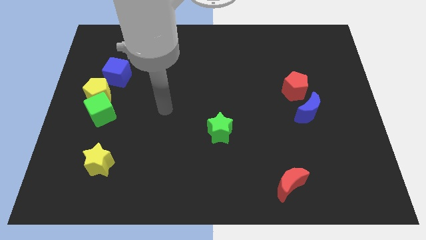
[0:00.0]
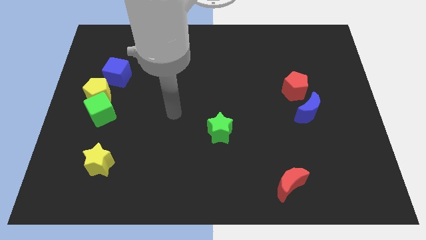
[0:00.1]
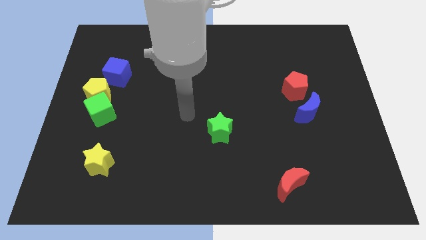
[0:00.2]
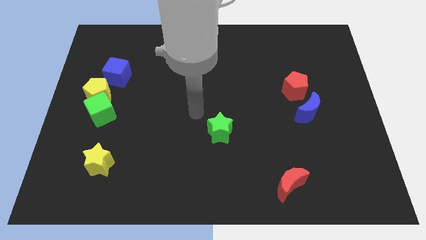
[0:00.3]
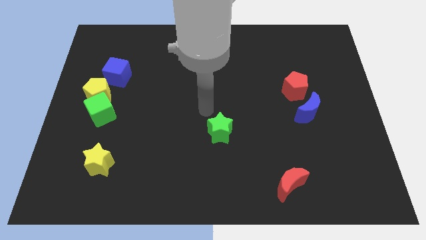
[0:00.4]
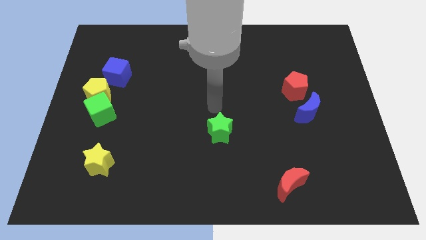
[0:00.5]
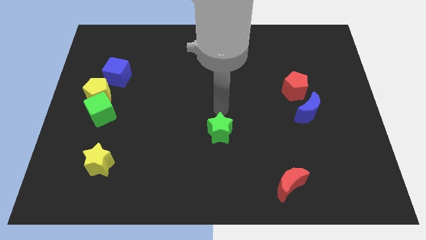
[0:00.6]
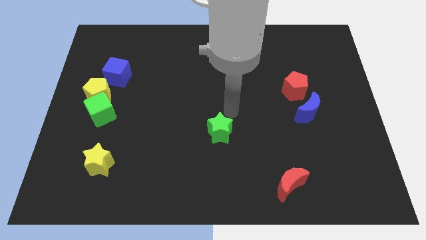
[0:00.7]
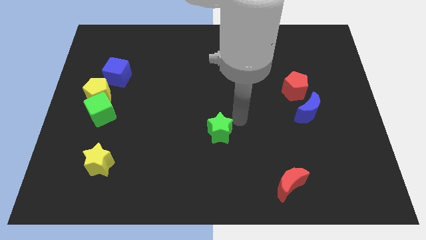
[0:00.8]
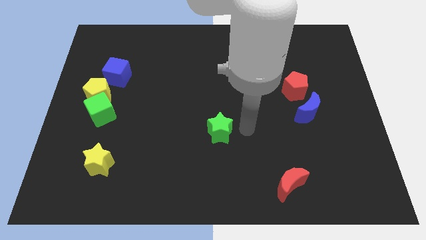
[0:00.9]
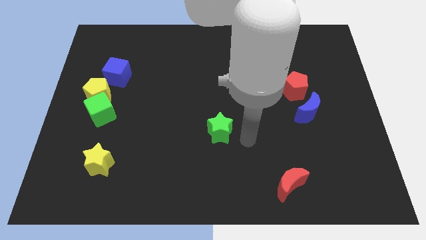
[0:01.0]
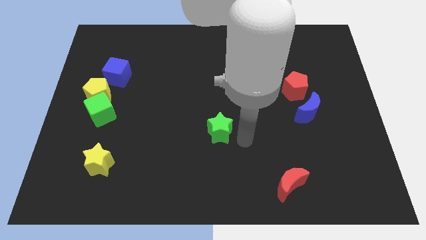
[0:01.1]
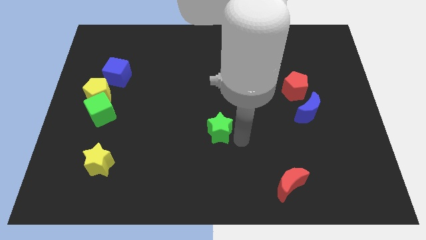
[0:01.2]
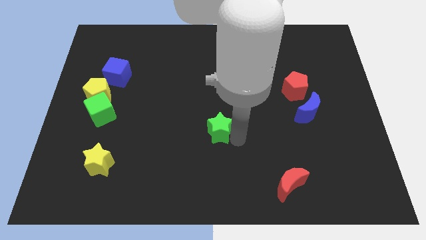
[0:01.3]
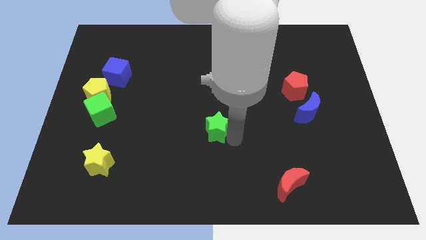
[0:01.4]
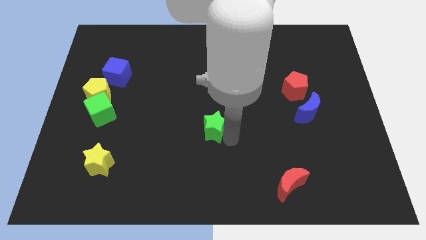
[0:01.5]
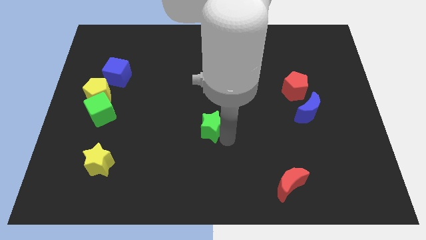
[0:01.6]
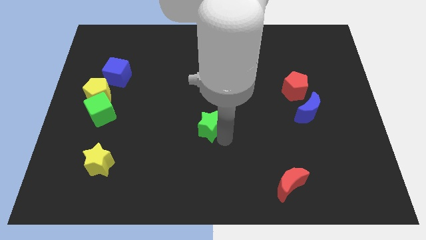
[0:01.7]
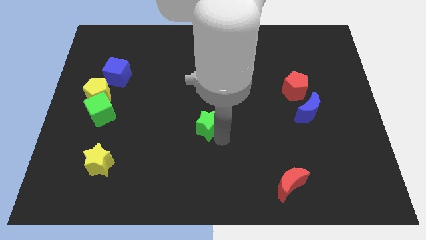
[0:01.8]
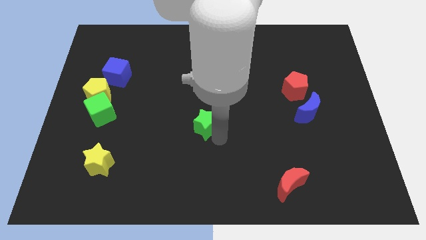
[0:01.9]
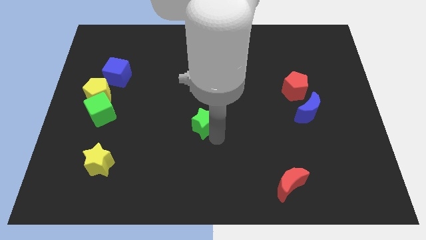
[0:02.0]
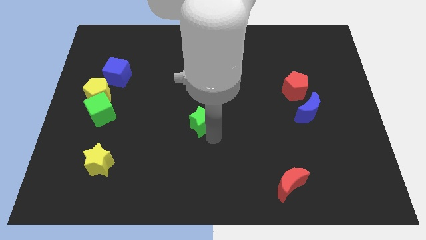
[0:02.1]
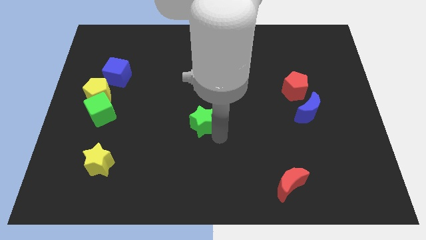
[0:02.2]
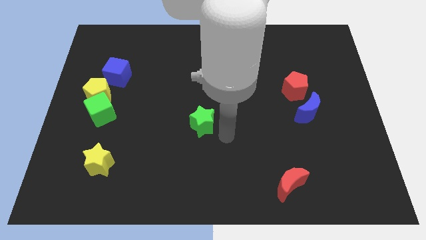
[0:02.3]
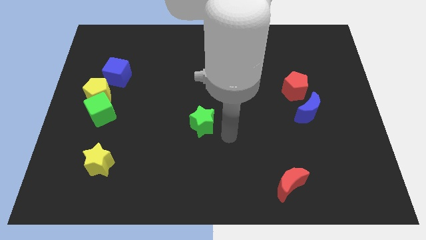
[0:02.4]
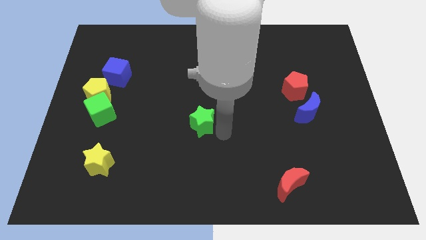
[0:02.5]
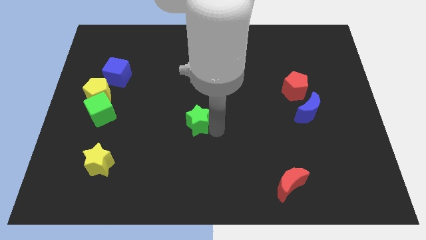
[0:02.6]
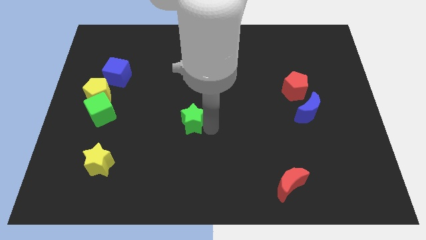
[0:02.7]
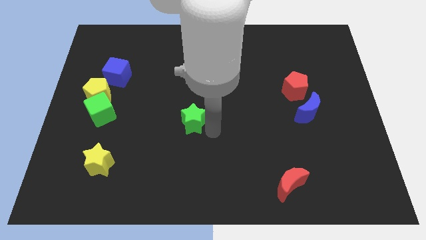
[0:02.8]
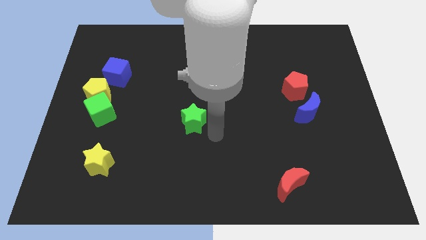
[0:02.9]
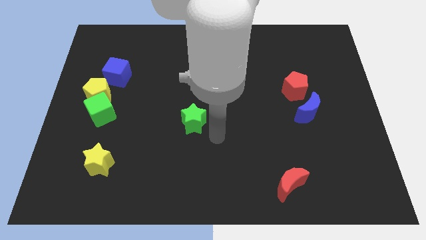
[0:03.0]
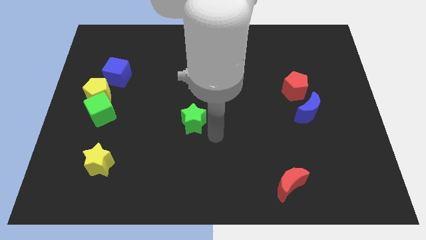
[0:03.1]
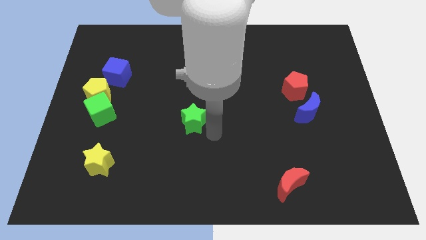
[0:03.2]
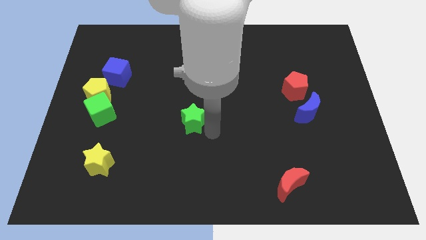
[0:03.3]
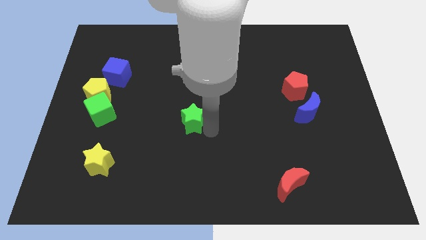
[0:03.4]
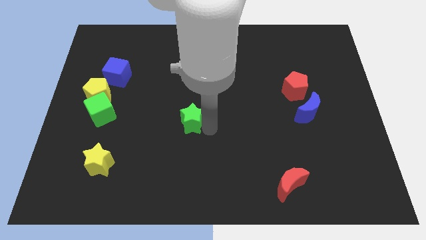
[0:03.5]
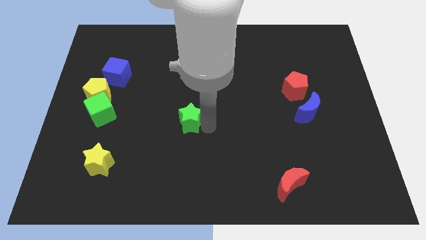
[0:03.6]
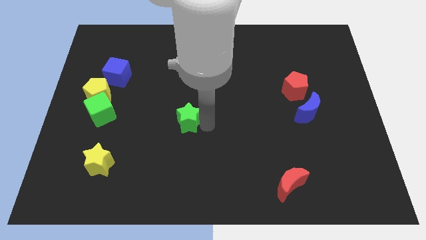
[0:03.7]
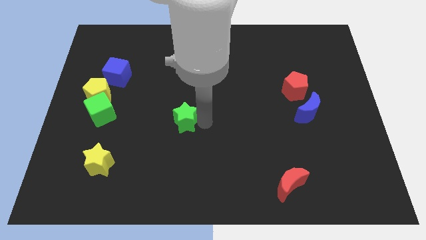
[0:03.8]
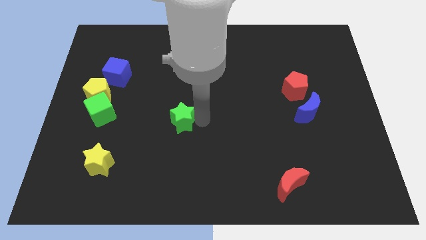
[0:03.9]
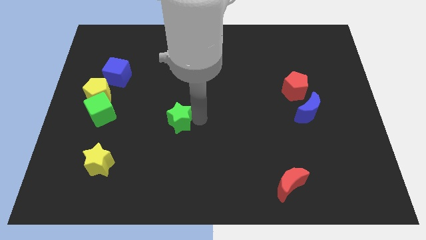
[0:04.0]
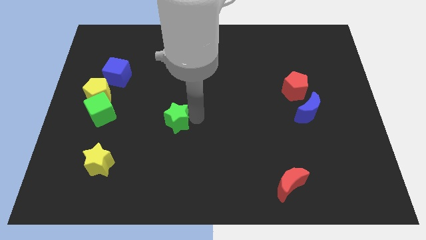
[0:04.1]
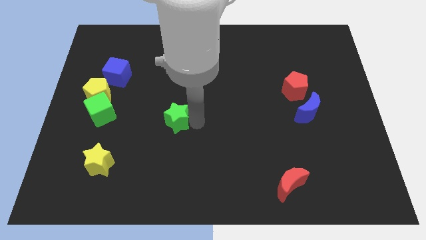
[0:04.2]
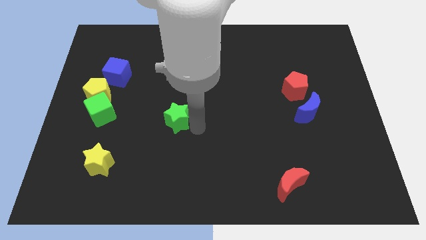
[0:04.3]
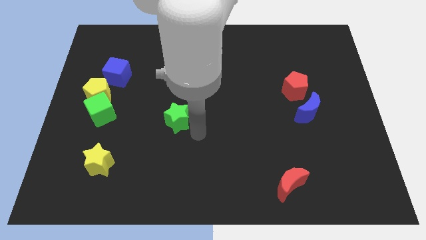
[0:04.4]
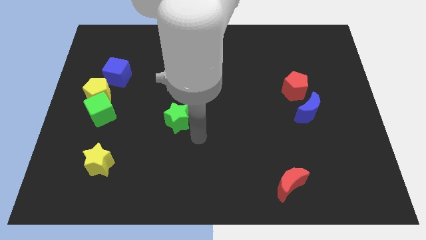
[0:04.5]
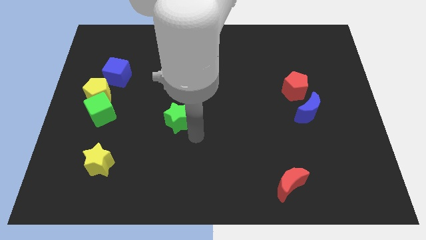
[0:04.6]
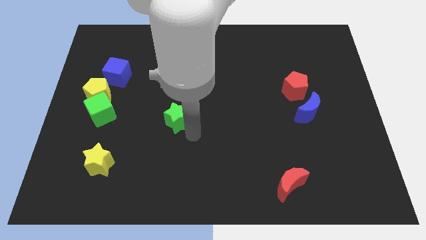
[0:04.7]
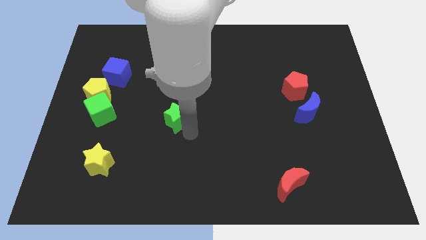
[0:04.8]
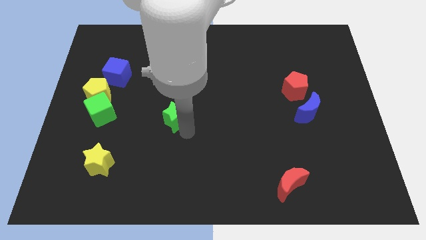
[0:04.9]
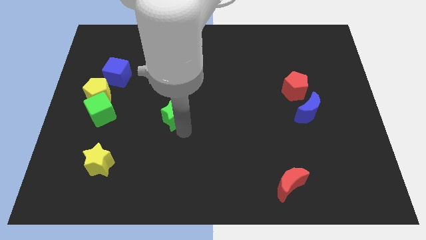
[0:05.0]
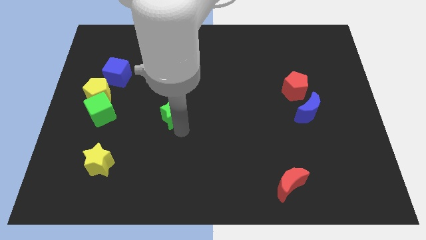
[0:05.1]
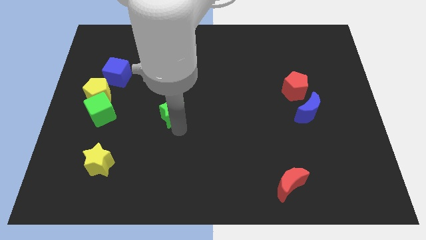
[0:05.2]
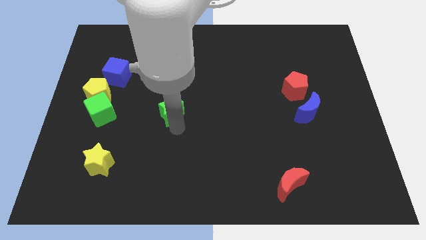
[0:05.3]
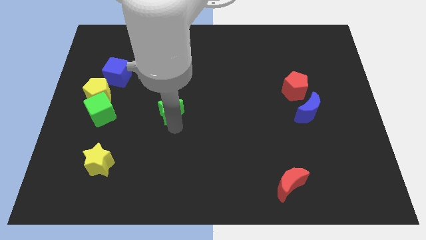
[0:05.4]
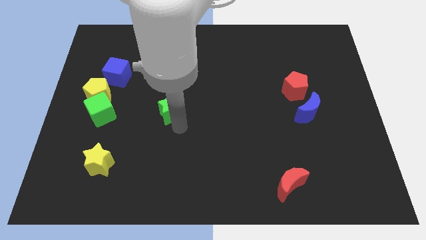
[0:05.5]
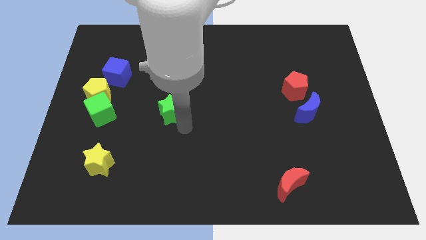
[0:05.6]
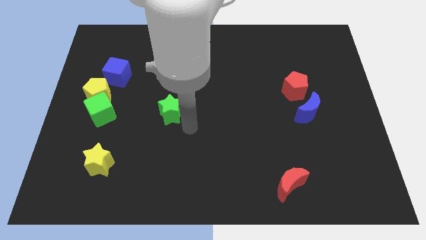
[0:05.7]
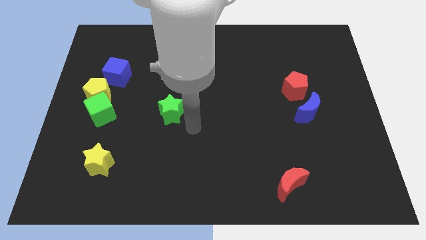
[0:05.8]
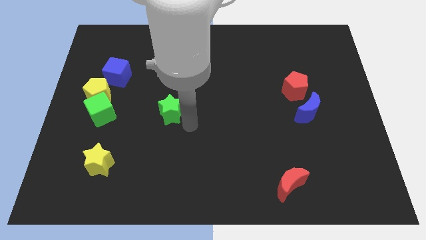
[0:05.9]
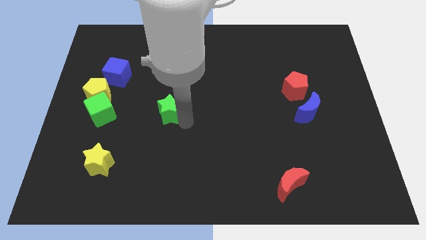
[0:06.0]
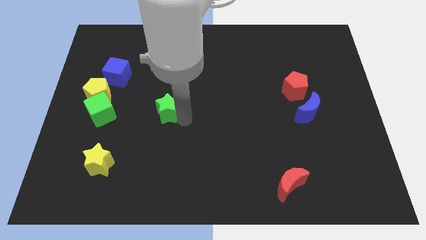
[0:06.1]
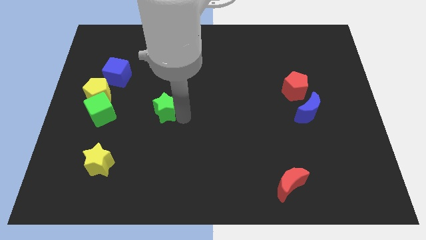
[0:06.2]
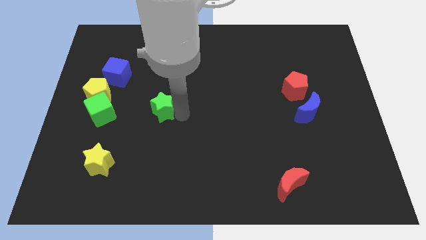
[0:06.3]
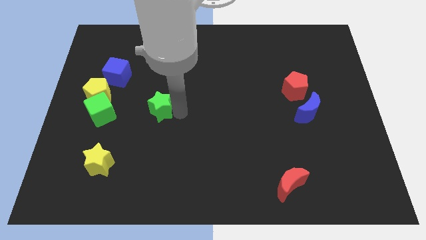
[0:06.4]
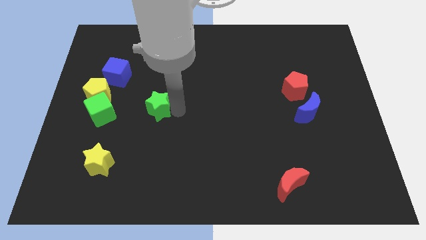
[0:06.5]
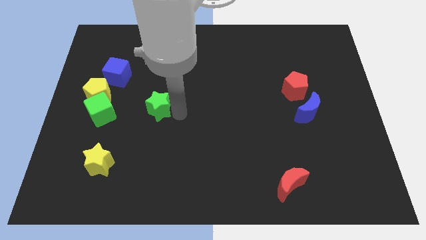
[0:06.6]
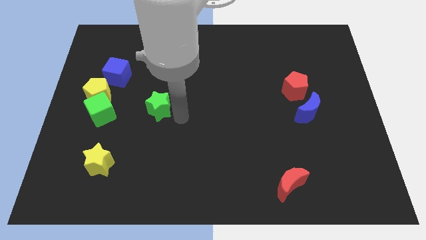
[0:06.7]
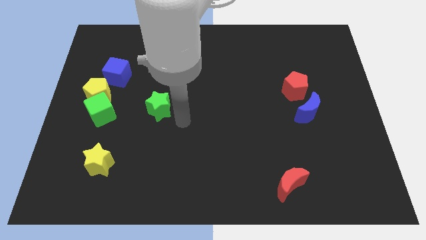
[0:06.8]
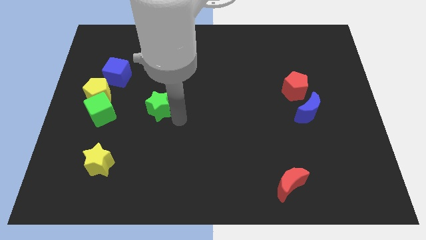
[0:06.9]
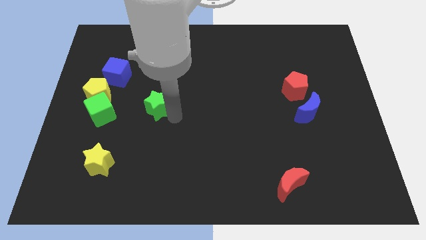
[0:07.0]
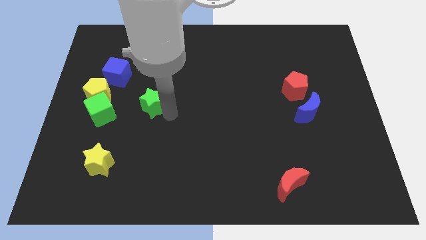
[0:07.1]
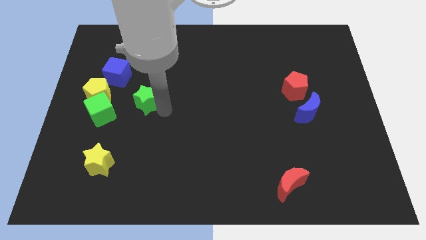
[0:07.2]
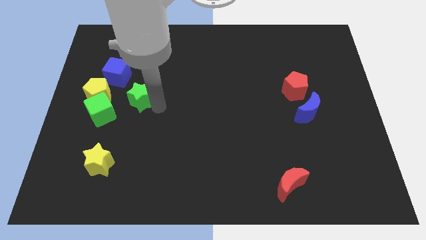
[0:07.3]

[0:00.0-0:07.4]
push the green star to the top right side of the green cube
